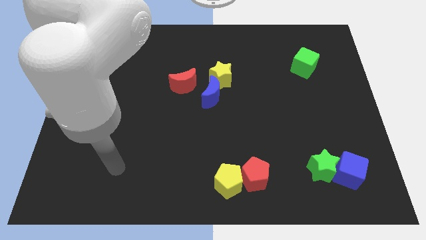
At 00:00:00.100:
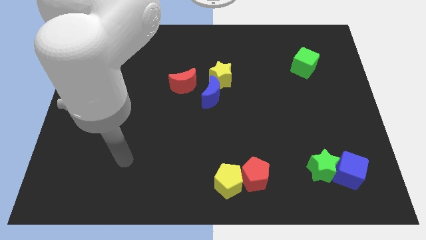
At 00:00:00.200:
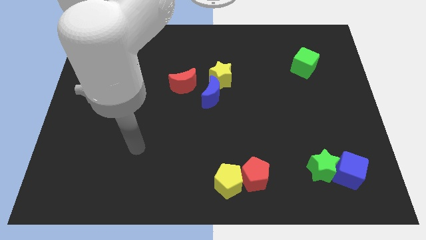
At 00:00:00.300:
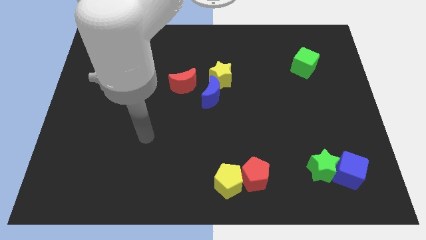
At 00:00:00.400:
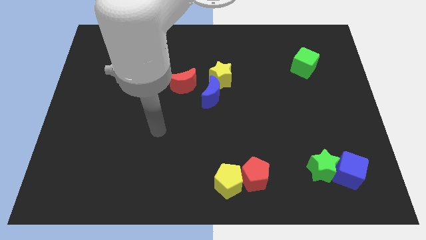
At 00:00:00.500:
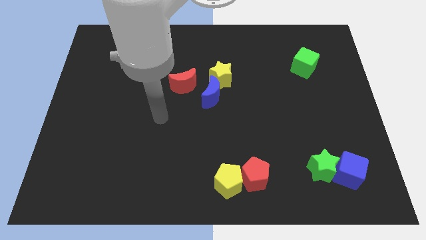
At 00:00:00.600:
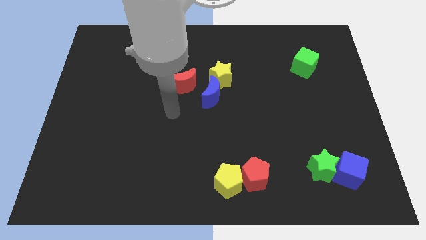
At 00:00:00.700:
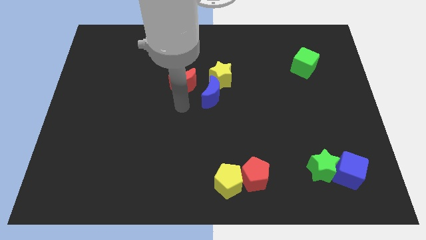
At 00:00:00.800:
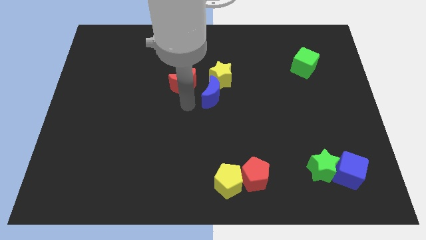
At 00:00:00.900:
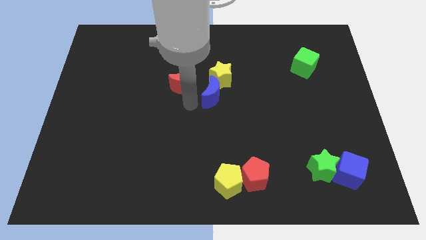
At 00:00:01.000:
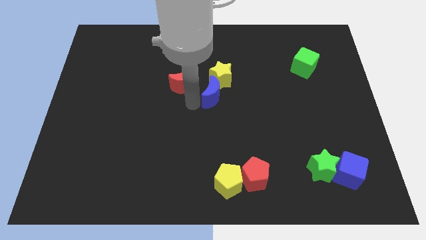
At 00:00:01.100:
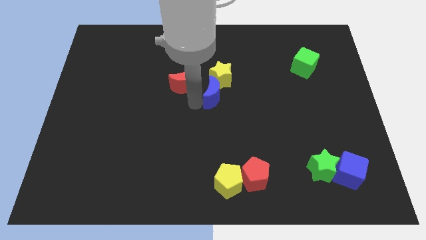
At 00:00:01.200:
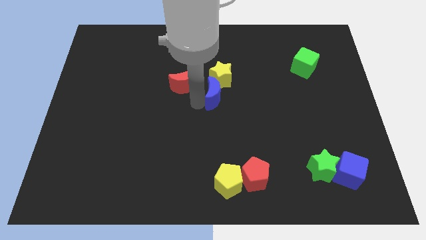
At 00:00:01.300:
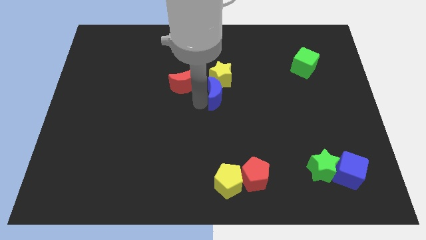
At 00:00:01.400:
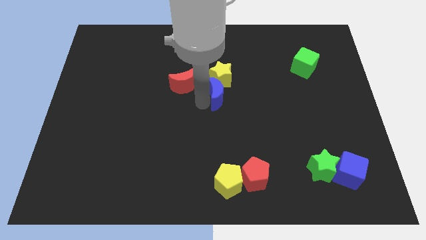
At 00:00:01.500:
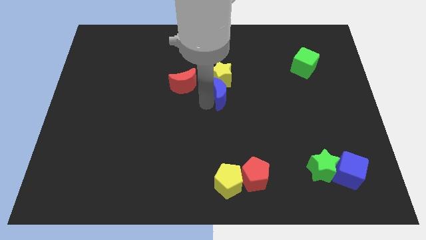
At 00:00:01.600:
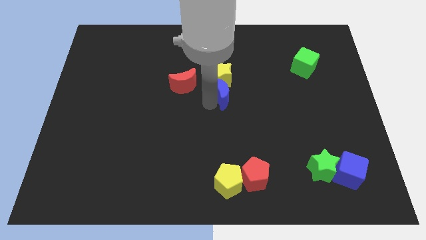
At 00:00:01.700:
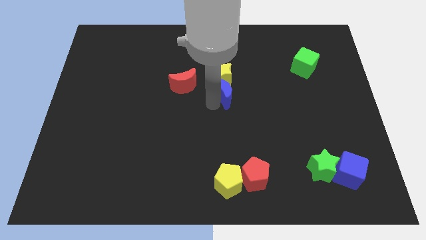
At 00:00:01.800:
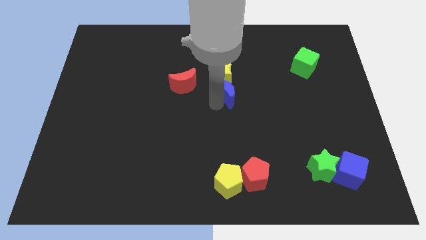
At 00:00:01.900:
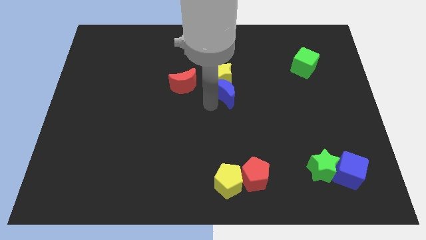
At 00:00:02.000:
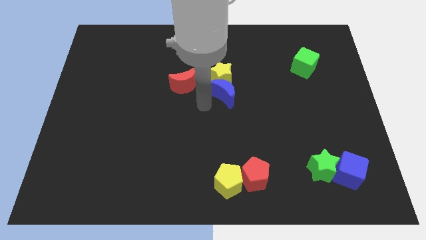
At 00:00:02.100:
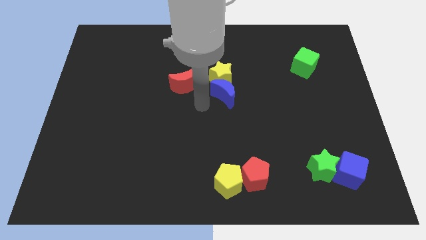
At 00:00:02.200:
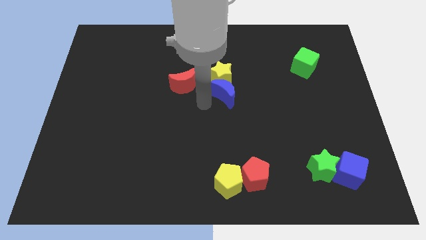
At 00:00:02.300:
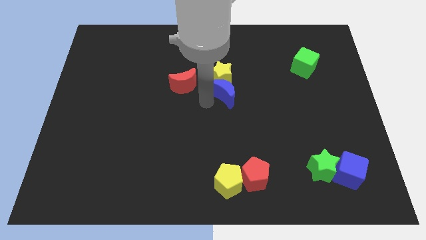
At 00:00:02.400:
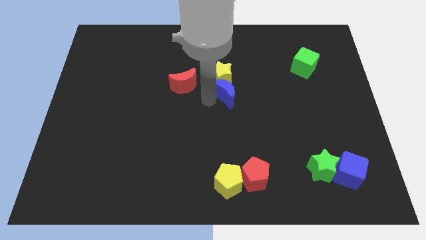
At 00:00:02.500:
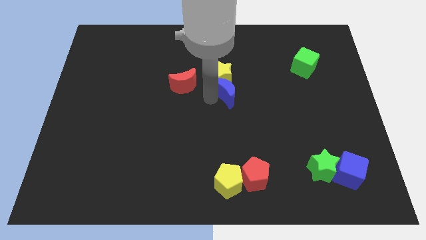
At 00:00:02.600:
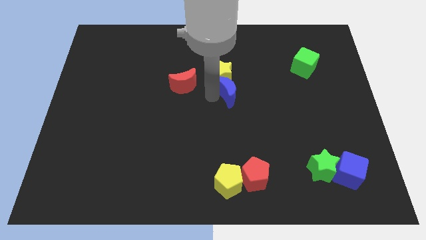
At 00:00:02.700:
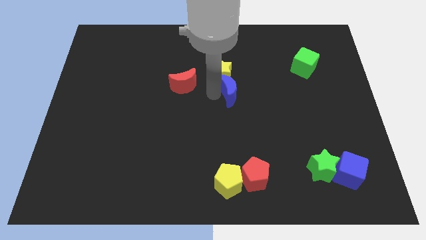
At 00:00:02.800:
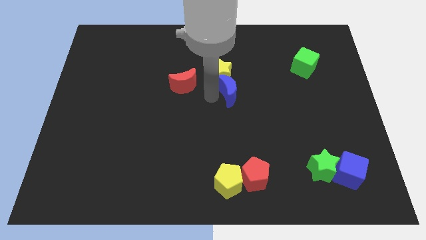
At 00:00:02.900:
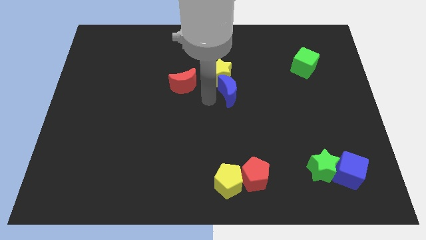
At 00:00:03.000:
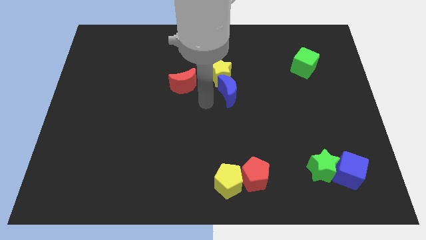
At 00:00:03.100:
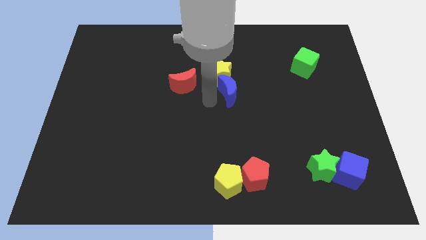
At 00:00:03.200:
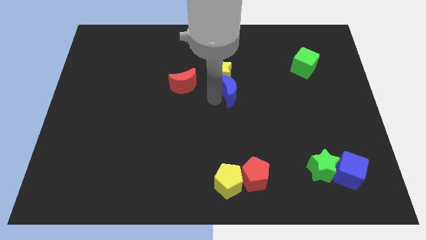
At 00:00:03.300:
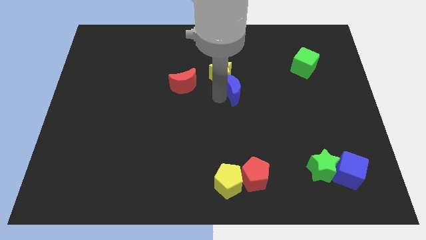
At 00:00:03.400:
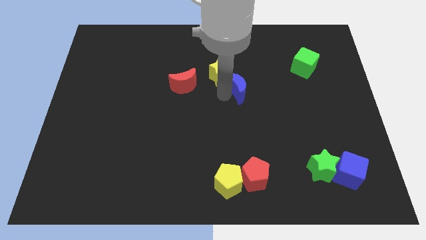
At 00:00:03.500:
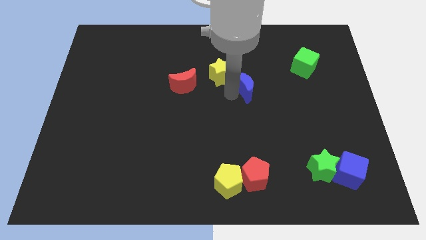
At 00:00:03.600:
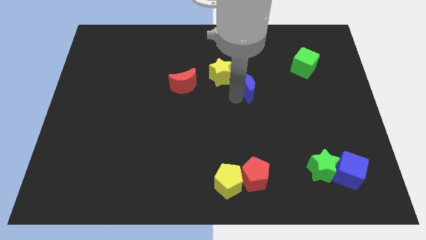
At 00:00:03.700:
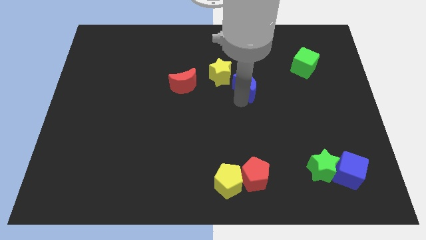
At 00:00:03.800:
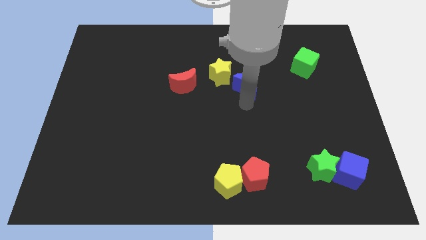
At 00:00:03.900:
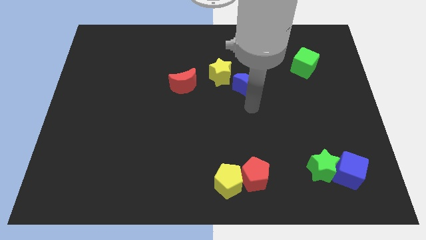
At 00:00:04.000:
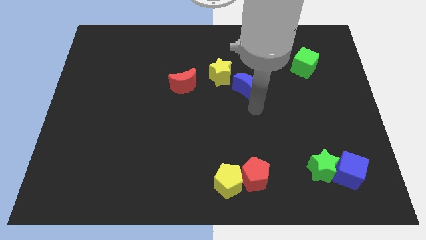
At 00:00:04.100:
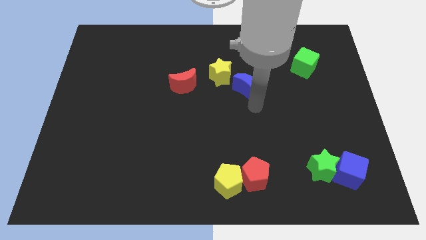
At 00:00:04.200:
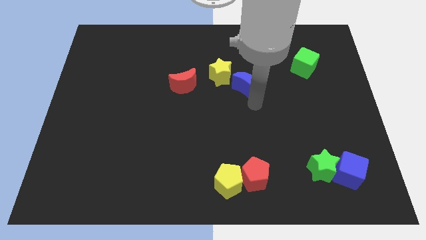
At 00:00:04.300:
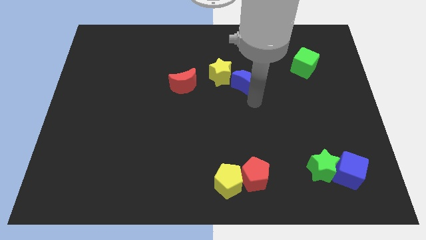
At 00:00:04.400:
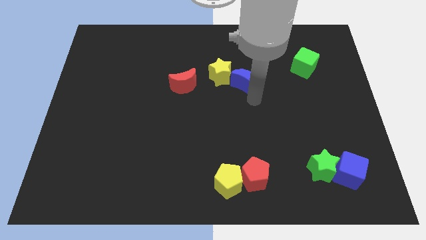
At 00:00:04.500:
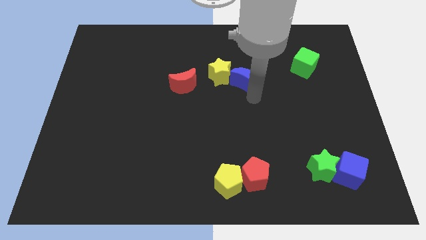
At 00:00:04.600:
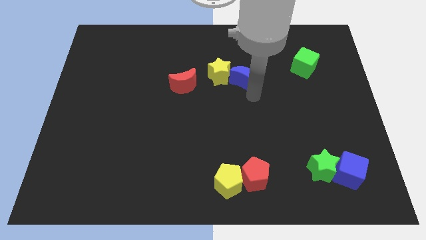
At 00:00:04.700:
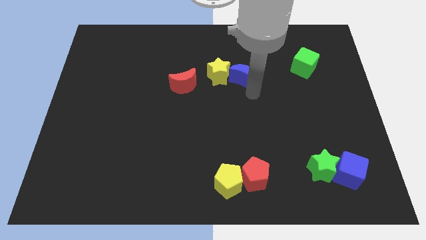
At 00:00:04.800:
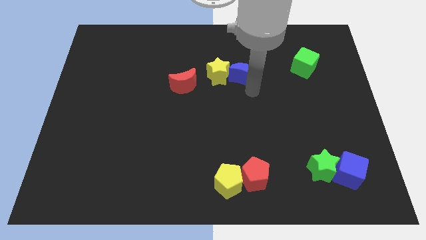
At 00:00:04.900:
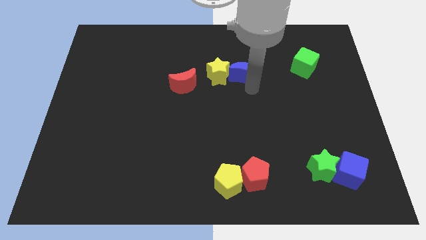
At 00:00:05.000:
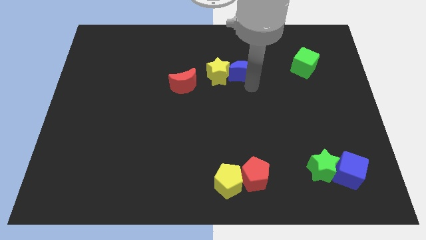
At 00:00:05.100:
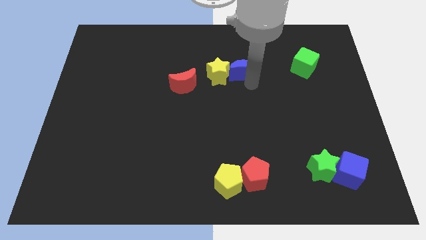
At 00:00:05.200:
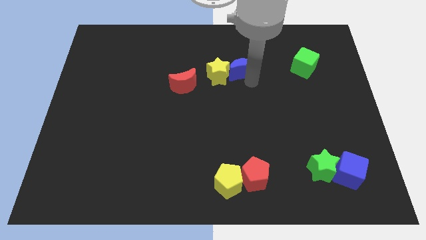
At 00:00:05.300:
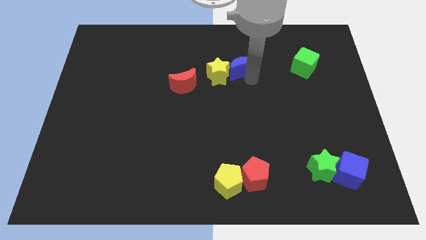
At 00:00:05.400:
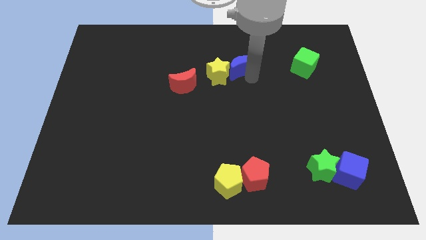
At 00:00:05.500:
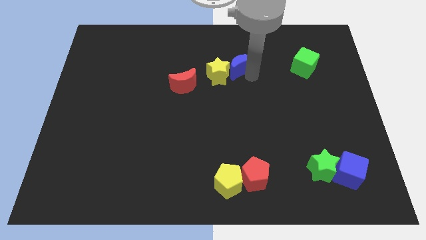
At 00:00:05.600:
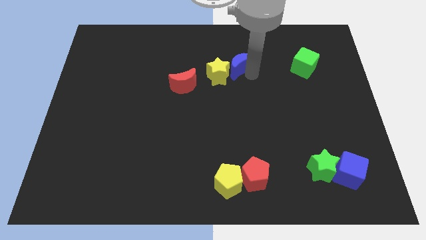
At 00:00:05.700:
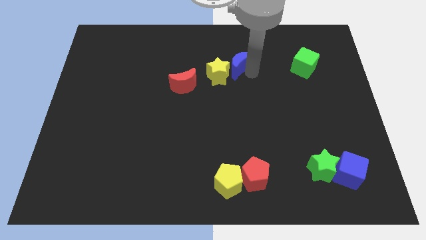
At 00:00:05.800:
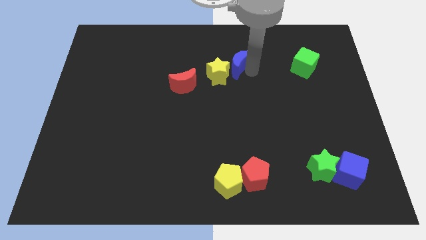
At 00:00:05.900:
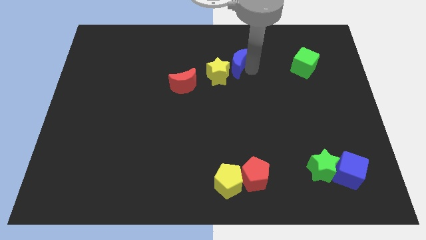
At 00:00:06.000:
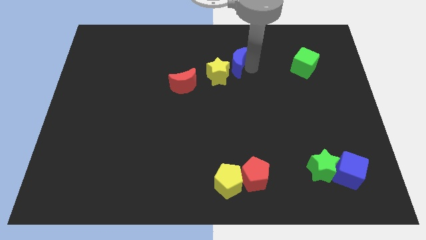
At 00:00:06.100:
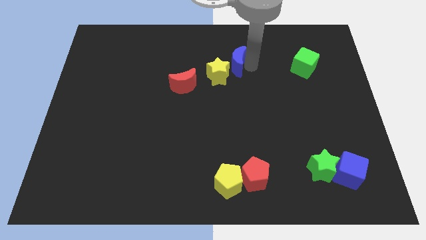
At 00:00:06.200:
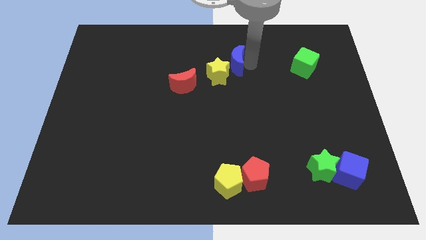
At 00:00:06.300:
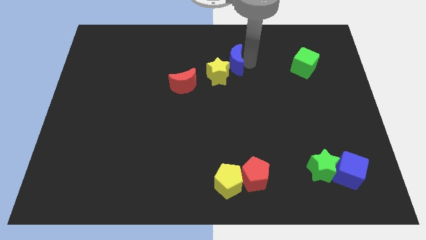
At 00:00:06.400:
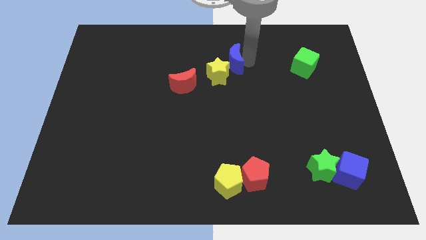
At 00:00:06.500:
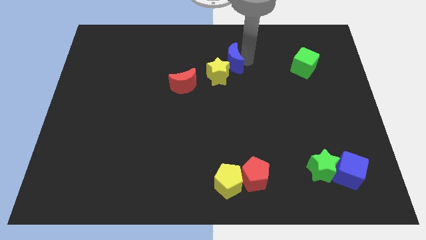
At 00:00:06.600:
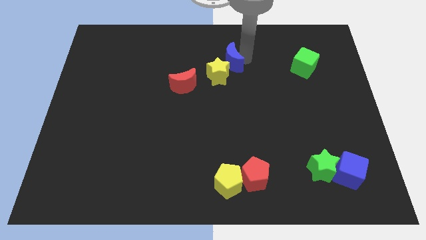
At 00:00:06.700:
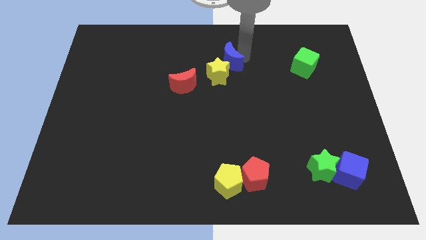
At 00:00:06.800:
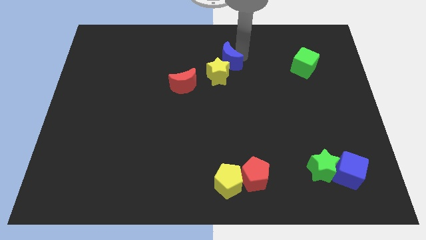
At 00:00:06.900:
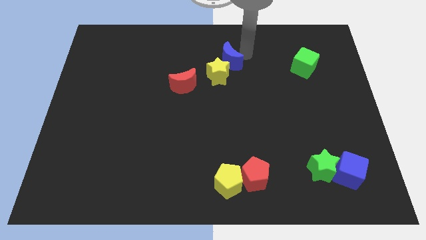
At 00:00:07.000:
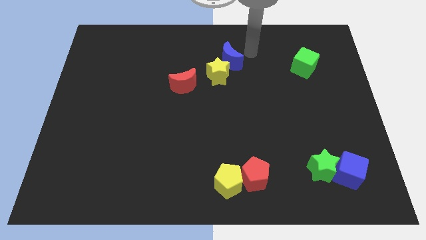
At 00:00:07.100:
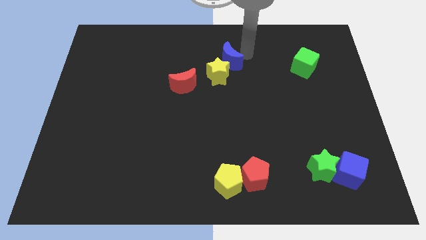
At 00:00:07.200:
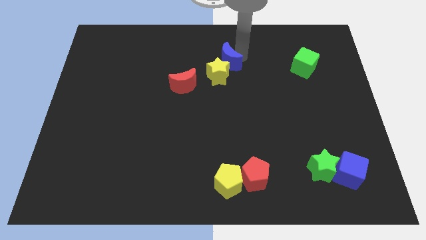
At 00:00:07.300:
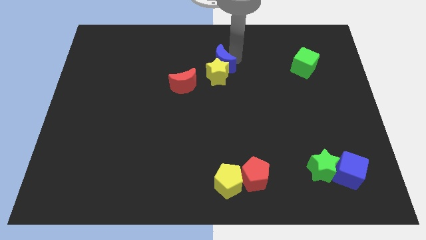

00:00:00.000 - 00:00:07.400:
put the blue moon to the top right side of the red moon

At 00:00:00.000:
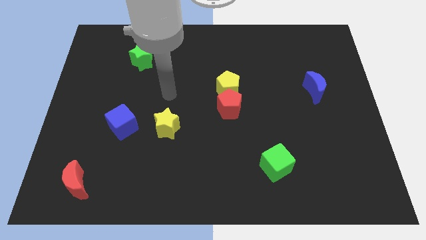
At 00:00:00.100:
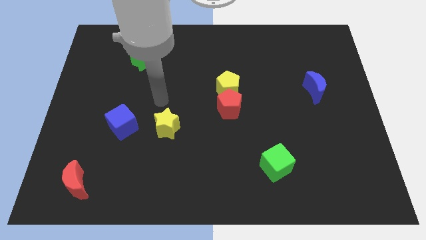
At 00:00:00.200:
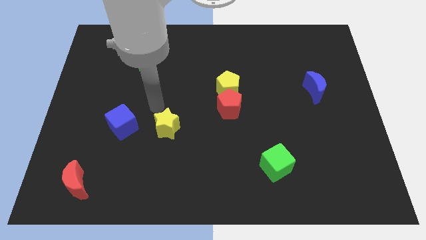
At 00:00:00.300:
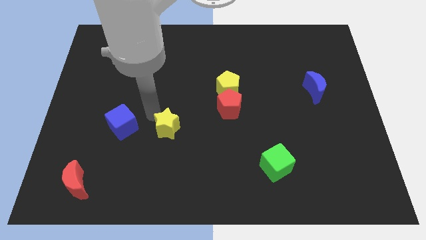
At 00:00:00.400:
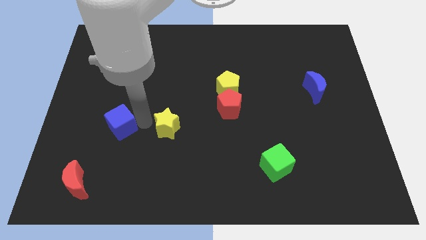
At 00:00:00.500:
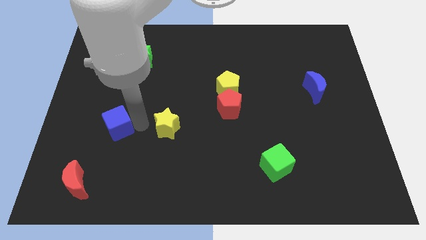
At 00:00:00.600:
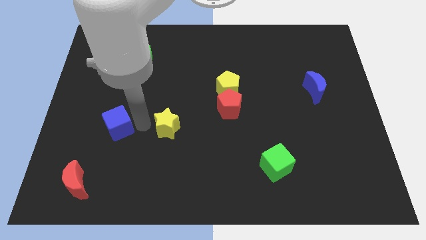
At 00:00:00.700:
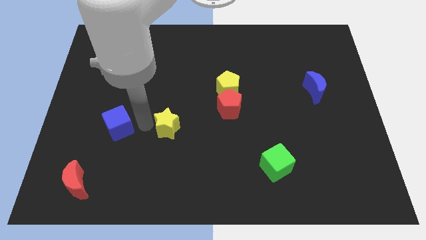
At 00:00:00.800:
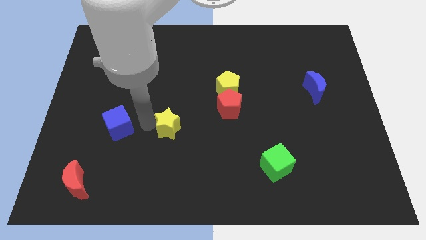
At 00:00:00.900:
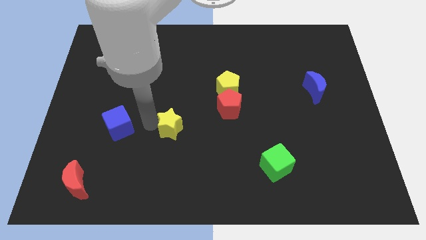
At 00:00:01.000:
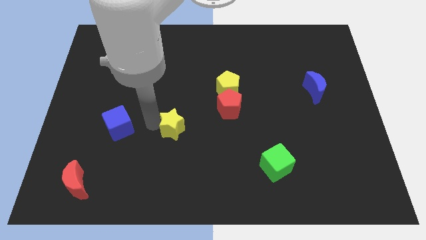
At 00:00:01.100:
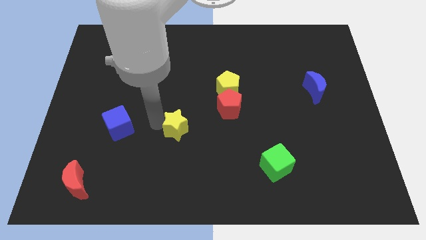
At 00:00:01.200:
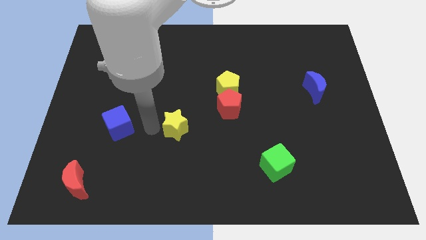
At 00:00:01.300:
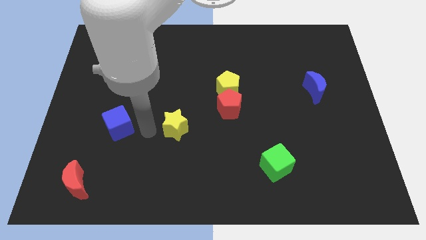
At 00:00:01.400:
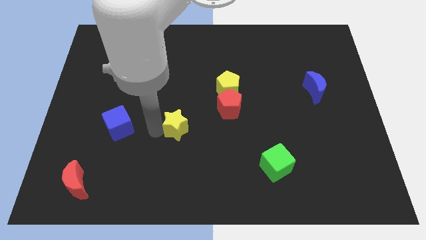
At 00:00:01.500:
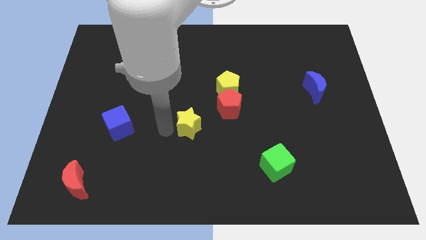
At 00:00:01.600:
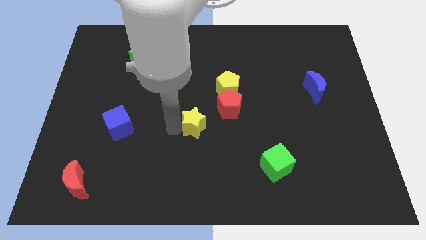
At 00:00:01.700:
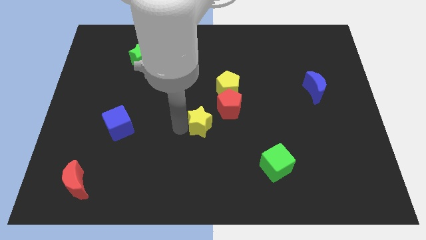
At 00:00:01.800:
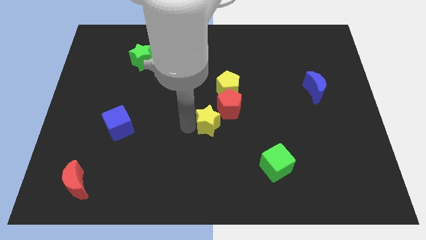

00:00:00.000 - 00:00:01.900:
put the yellow star to the bottom of the yellow pentagon
